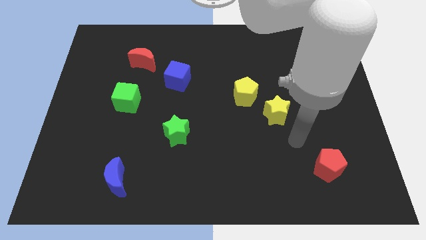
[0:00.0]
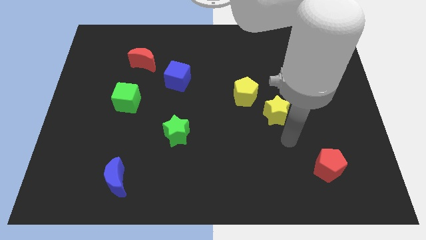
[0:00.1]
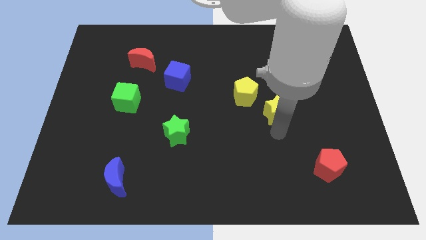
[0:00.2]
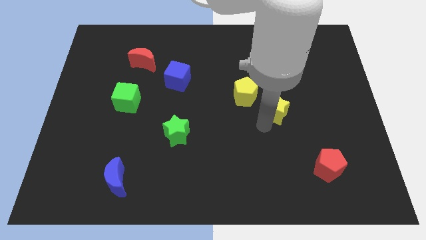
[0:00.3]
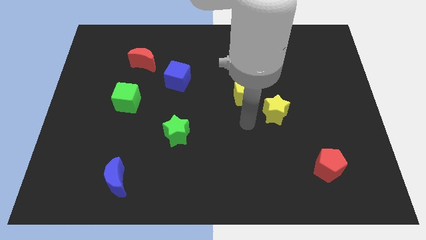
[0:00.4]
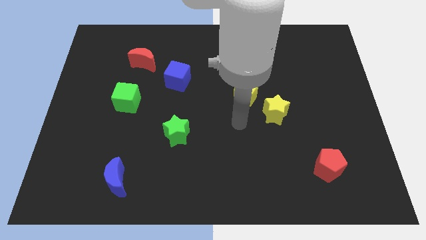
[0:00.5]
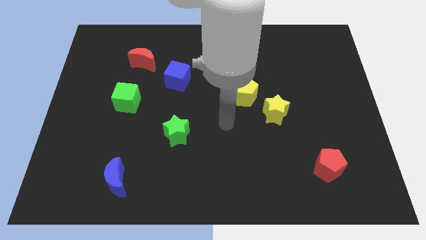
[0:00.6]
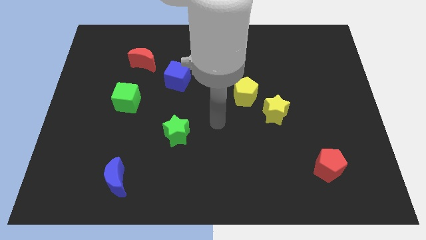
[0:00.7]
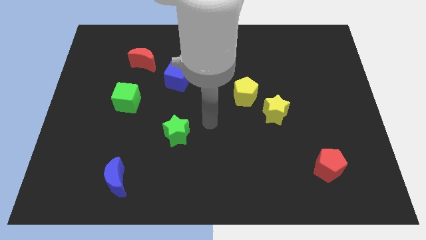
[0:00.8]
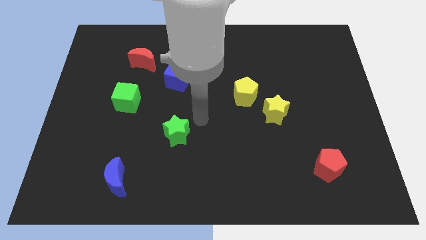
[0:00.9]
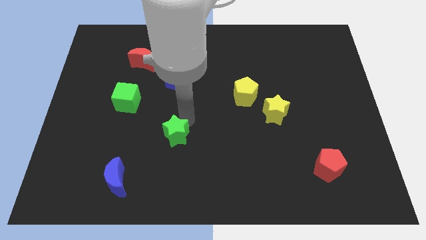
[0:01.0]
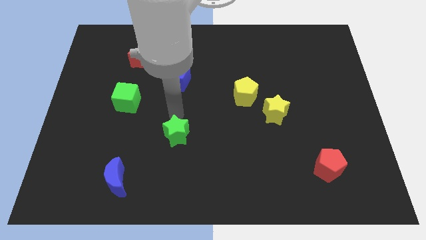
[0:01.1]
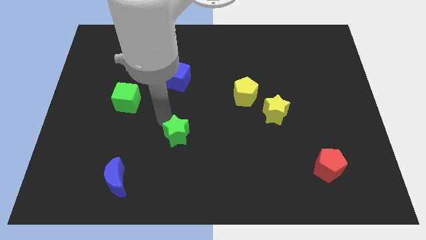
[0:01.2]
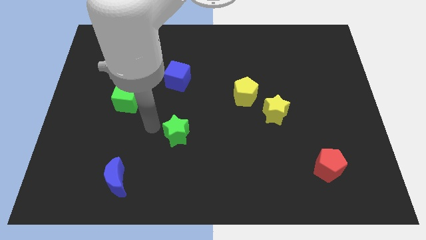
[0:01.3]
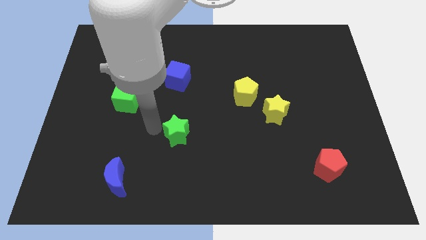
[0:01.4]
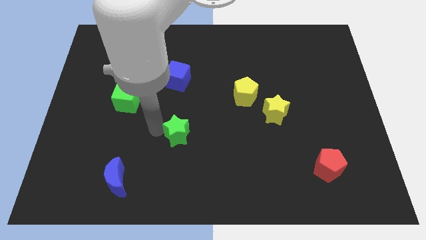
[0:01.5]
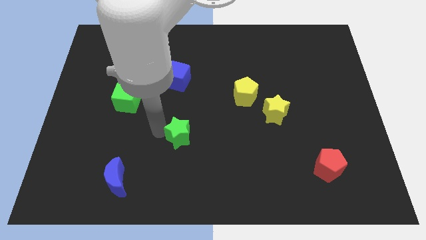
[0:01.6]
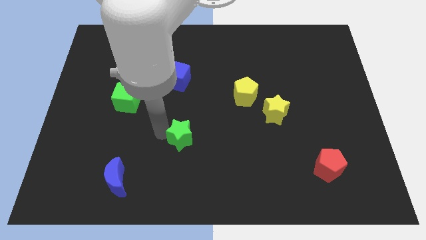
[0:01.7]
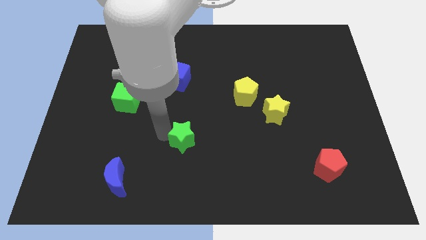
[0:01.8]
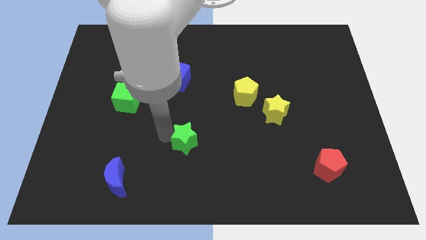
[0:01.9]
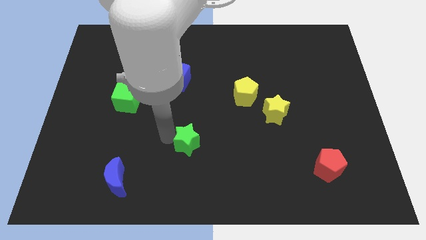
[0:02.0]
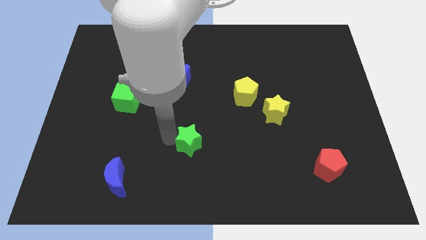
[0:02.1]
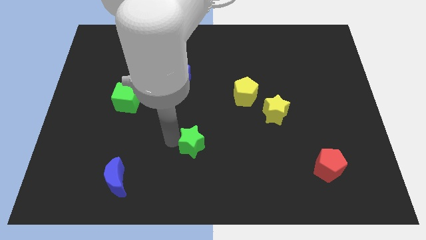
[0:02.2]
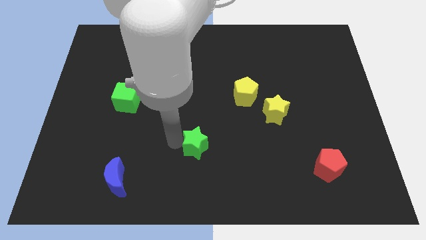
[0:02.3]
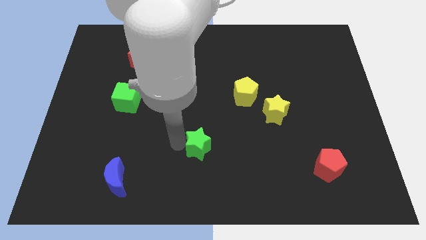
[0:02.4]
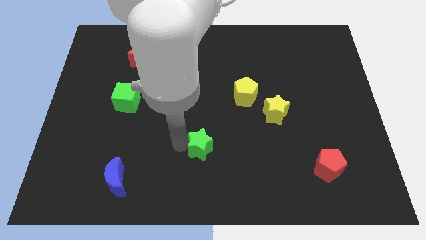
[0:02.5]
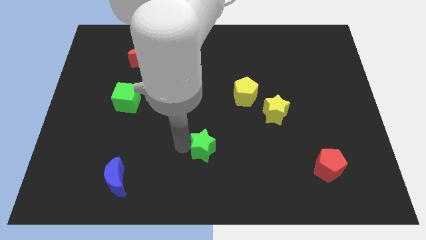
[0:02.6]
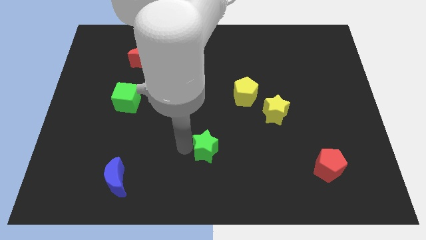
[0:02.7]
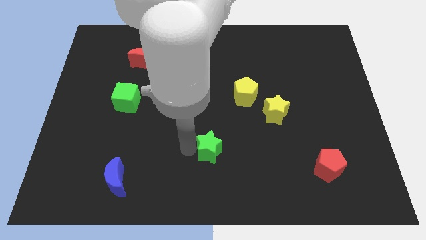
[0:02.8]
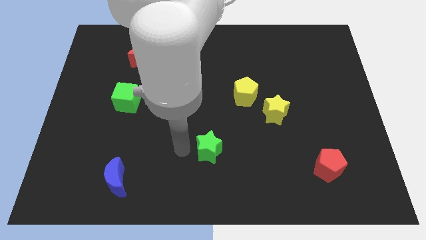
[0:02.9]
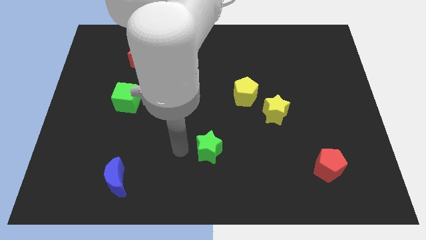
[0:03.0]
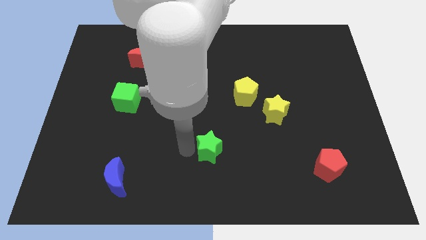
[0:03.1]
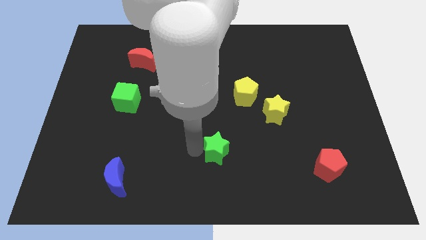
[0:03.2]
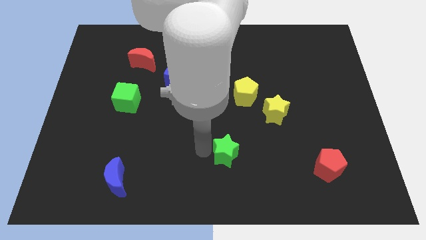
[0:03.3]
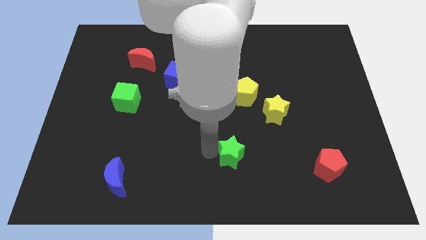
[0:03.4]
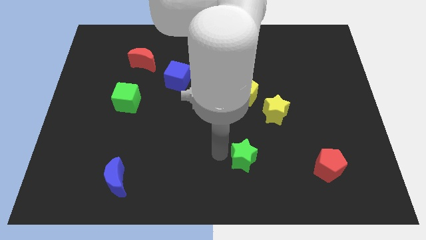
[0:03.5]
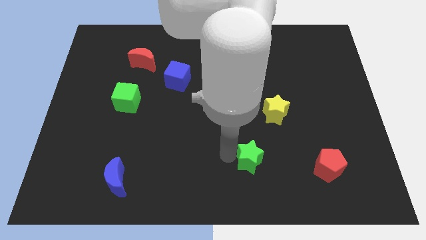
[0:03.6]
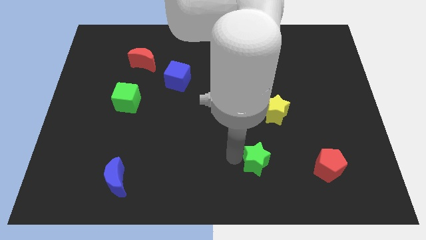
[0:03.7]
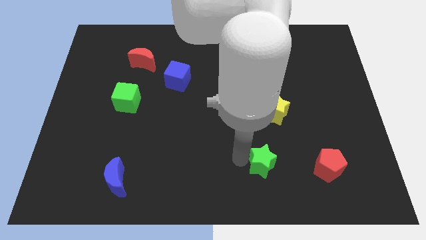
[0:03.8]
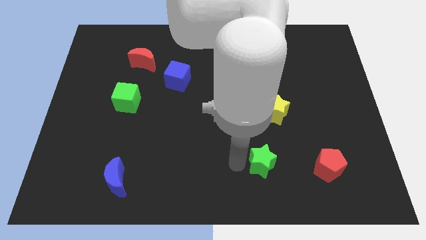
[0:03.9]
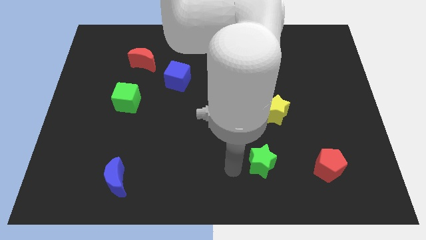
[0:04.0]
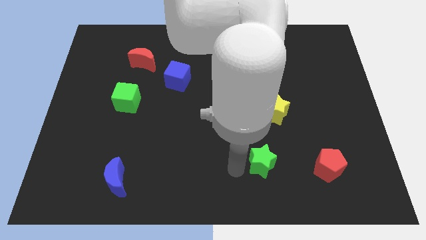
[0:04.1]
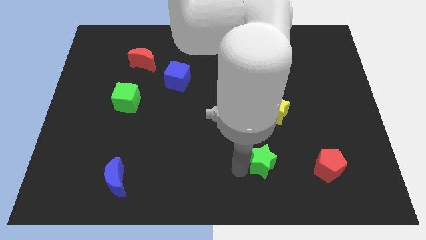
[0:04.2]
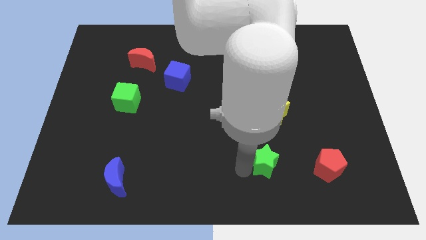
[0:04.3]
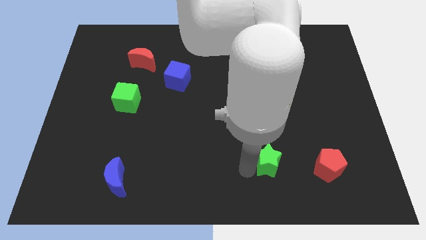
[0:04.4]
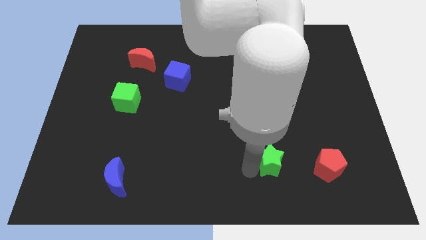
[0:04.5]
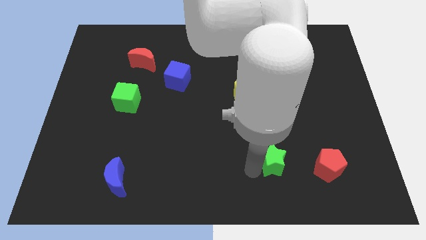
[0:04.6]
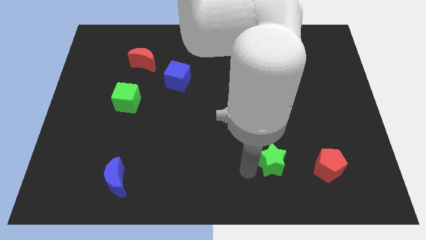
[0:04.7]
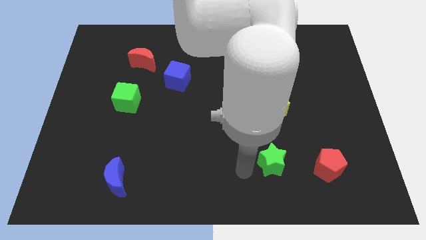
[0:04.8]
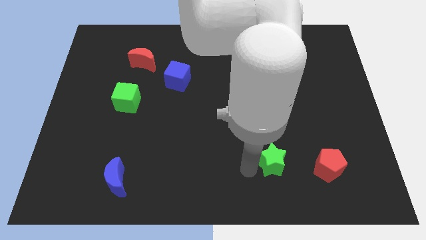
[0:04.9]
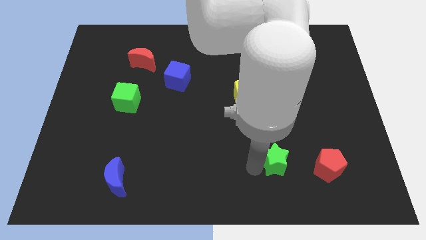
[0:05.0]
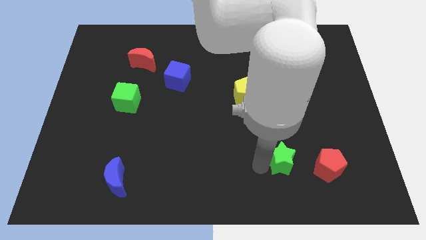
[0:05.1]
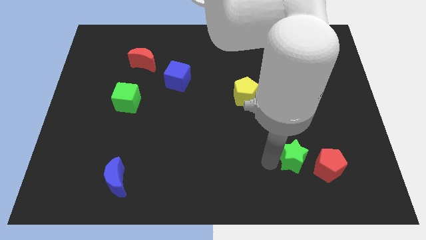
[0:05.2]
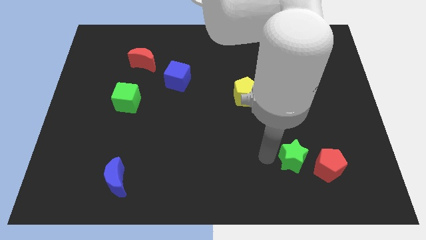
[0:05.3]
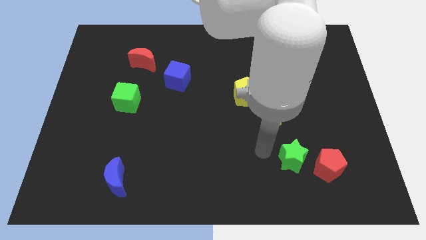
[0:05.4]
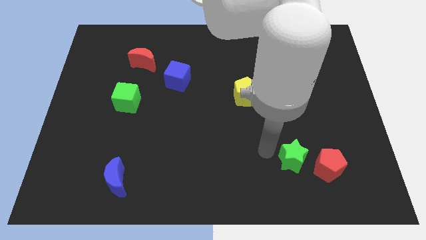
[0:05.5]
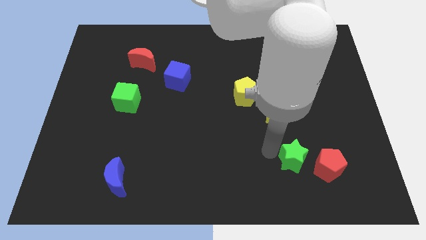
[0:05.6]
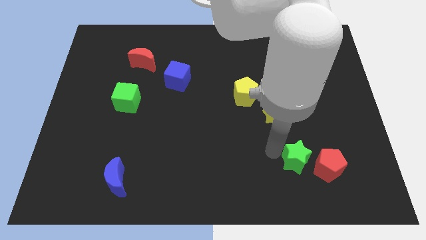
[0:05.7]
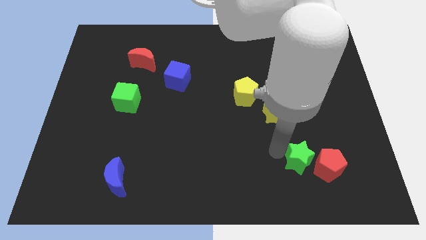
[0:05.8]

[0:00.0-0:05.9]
put the green star to the red pentagon

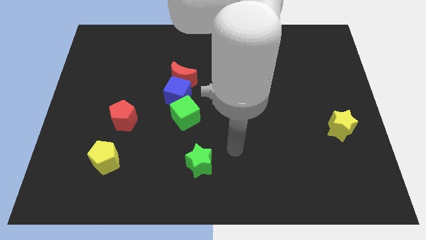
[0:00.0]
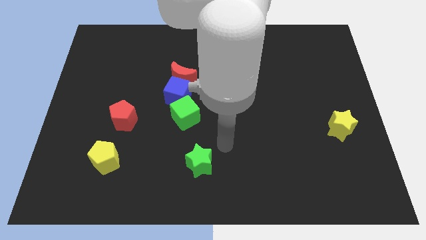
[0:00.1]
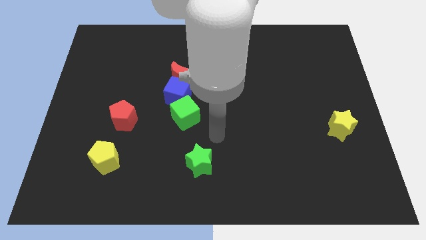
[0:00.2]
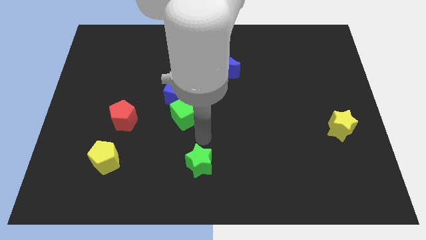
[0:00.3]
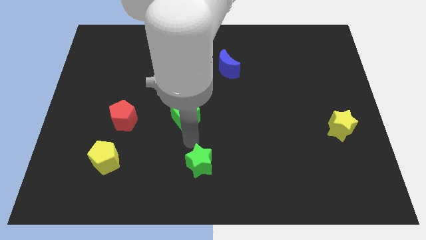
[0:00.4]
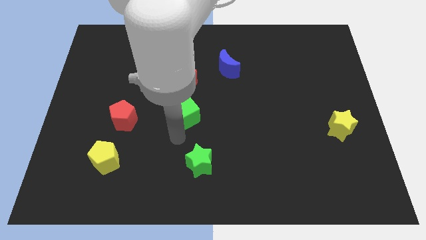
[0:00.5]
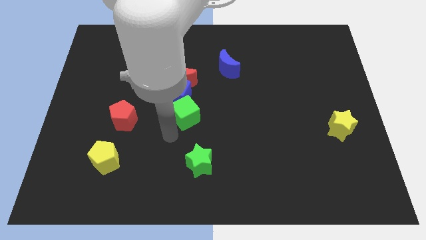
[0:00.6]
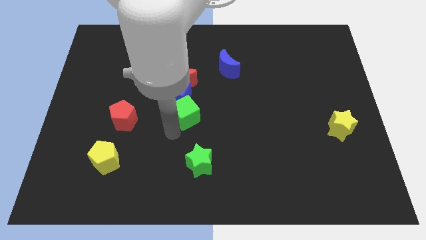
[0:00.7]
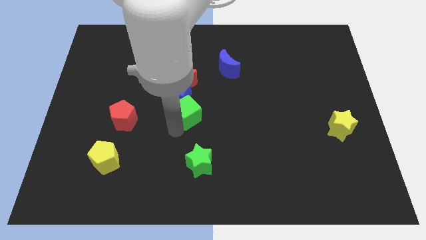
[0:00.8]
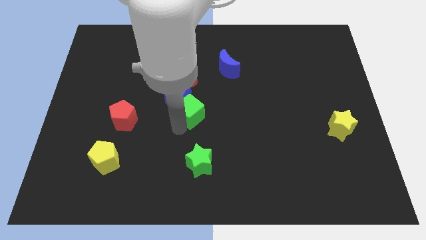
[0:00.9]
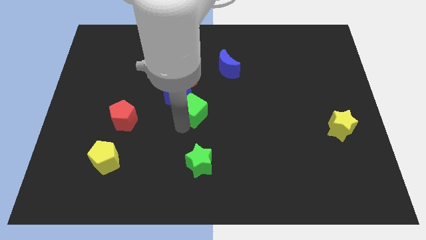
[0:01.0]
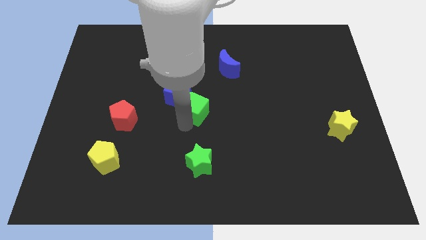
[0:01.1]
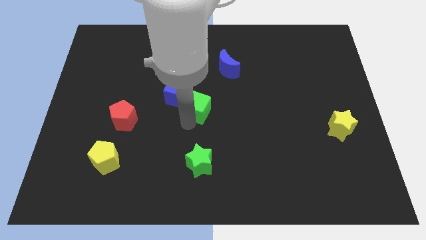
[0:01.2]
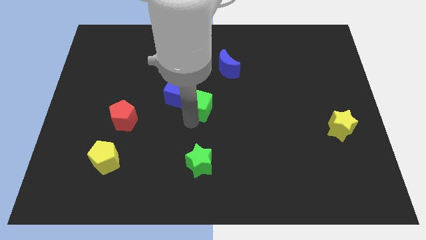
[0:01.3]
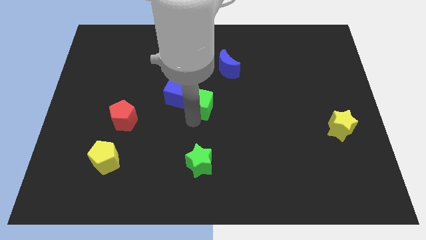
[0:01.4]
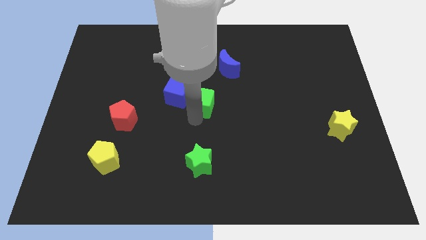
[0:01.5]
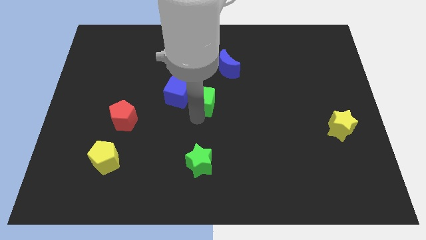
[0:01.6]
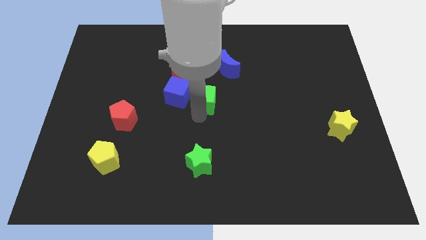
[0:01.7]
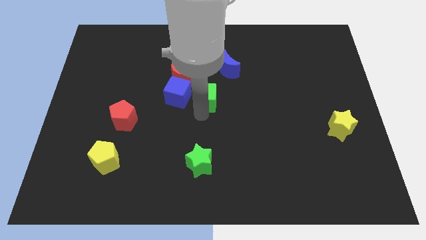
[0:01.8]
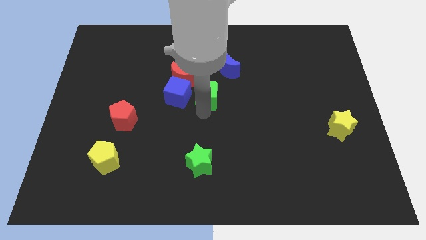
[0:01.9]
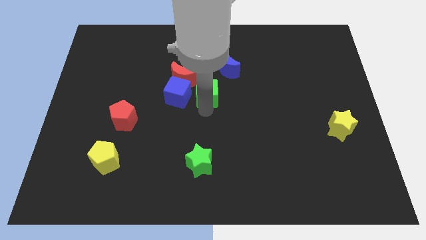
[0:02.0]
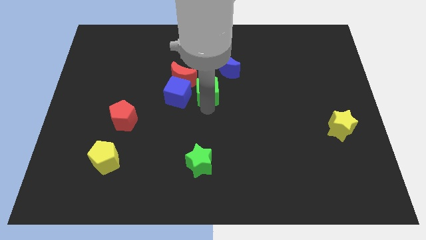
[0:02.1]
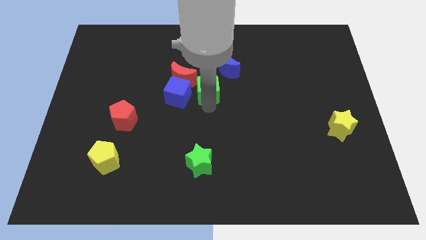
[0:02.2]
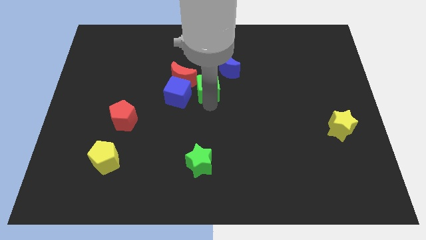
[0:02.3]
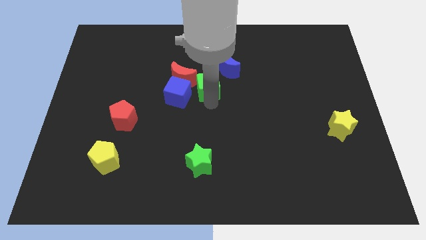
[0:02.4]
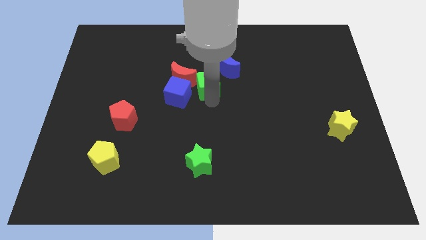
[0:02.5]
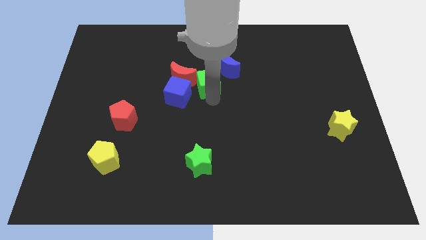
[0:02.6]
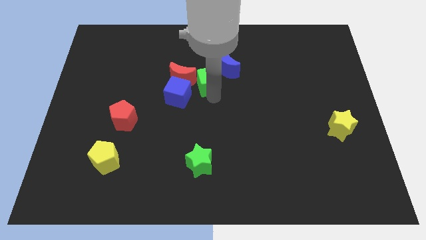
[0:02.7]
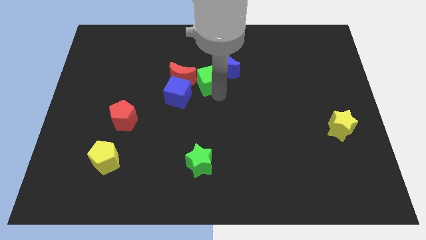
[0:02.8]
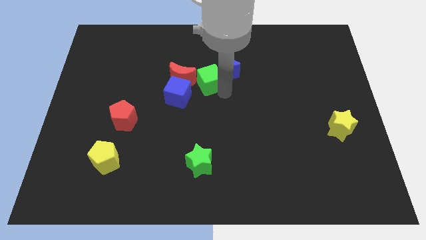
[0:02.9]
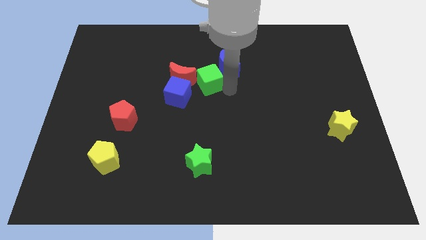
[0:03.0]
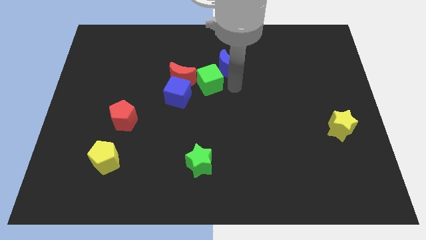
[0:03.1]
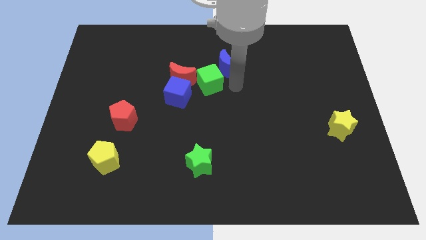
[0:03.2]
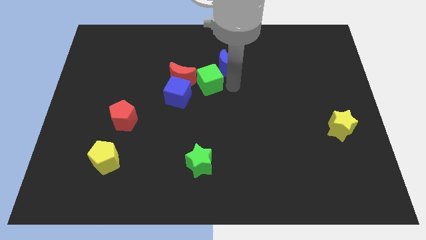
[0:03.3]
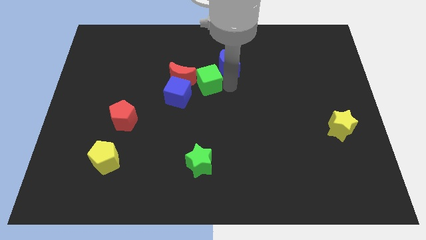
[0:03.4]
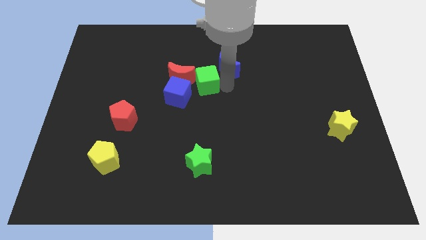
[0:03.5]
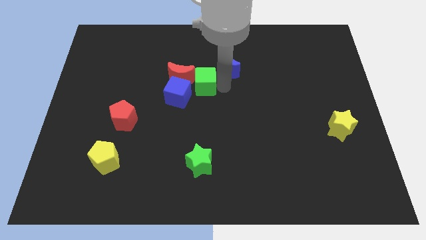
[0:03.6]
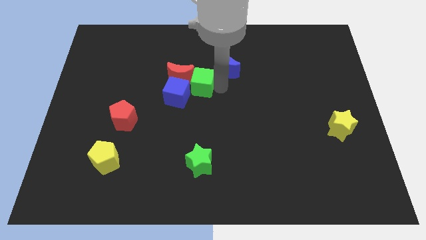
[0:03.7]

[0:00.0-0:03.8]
push the green cube next to the red moon
